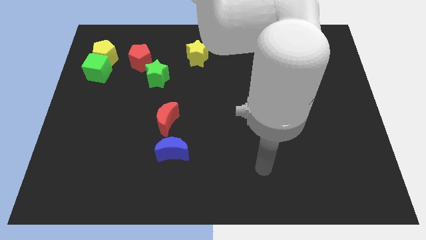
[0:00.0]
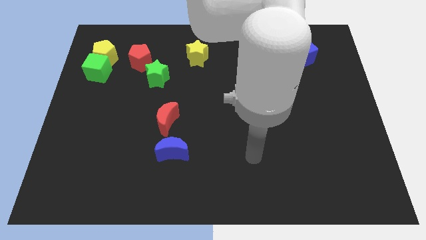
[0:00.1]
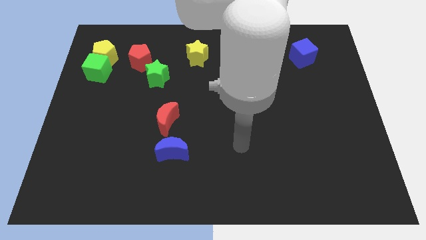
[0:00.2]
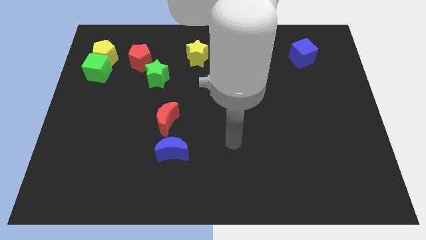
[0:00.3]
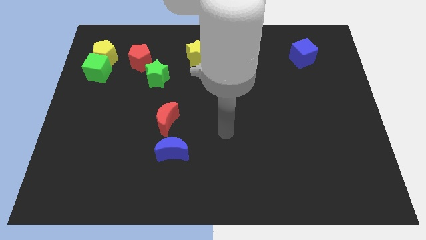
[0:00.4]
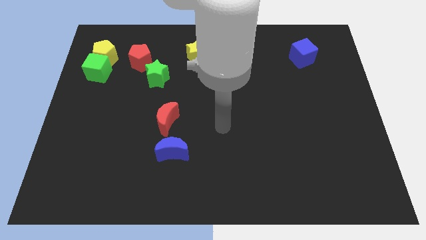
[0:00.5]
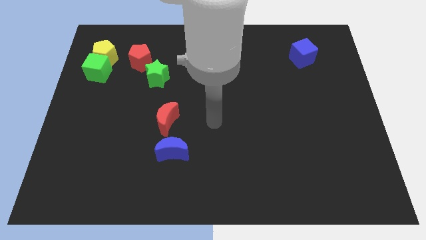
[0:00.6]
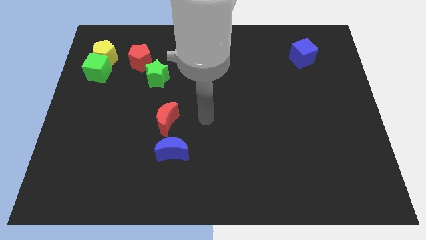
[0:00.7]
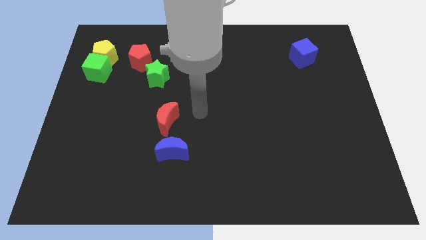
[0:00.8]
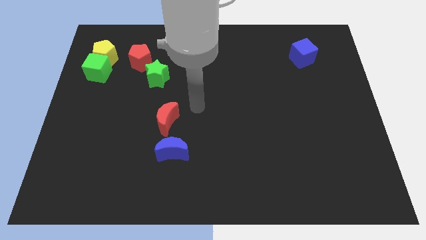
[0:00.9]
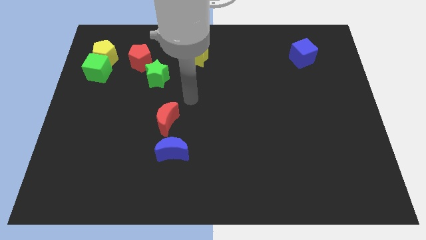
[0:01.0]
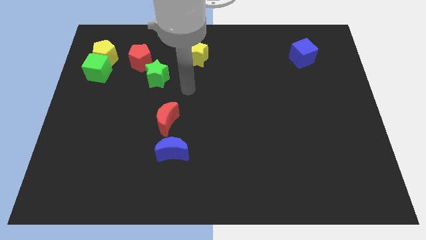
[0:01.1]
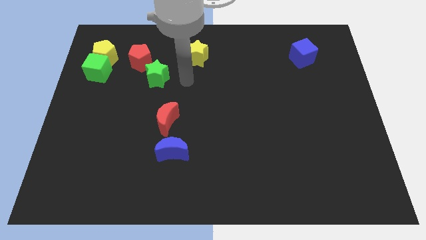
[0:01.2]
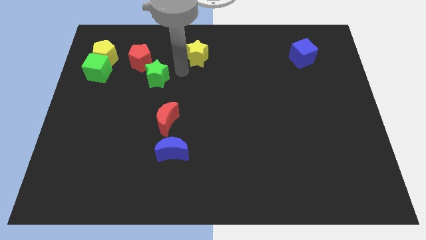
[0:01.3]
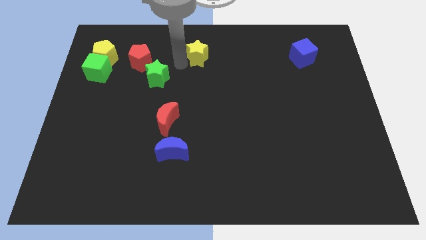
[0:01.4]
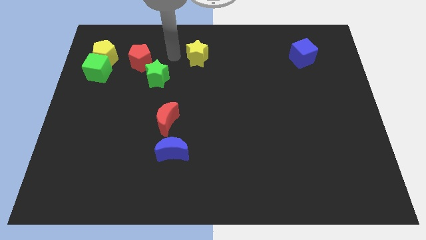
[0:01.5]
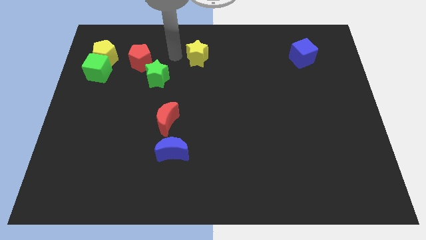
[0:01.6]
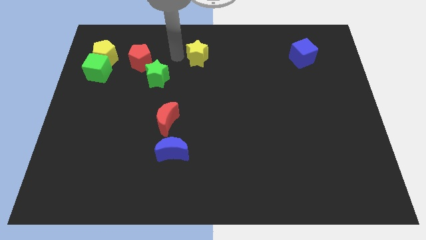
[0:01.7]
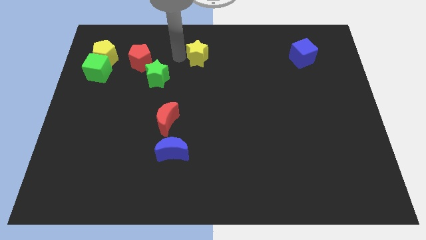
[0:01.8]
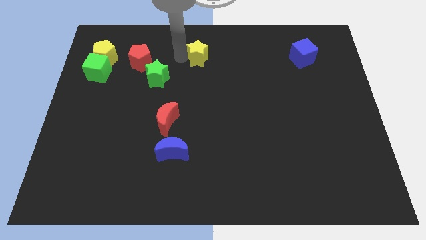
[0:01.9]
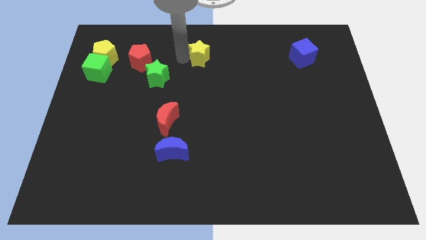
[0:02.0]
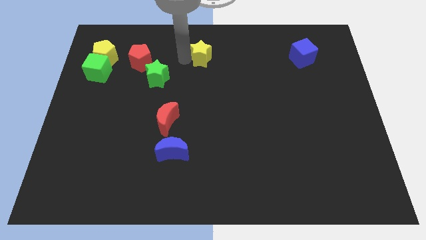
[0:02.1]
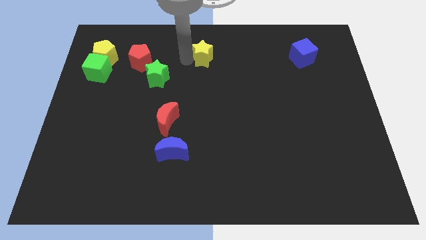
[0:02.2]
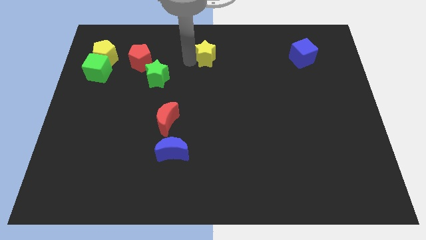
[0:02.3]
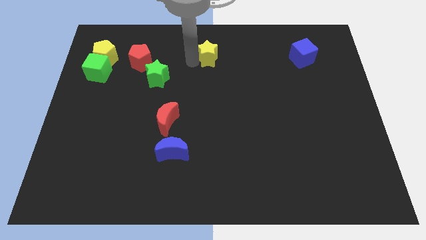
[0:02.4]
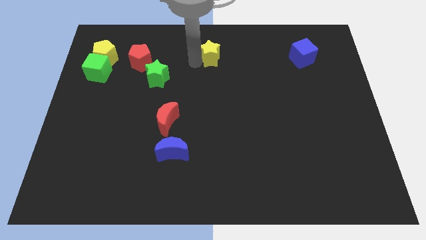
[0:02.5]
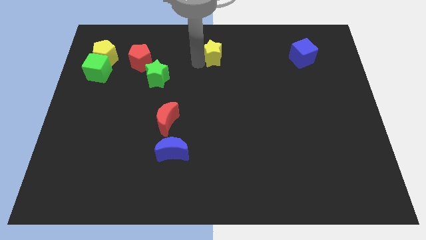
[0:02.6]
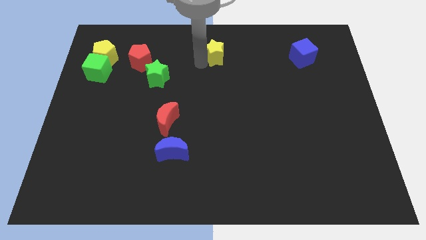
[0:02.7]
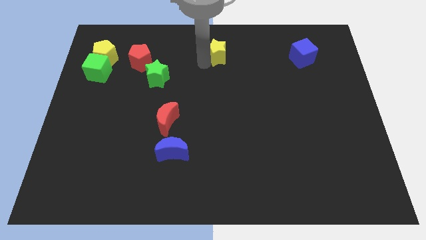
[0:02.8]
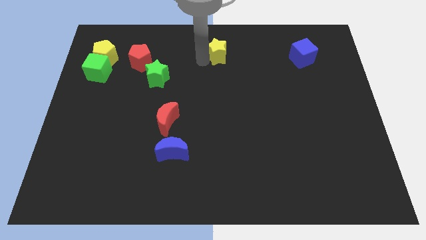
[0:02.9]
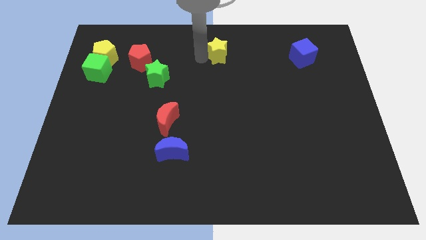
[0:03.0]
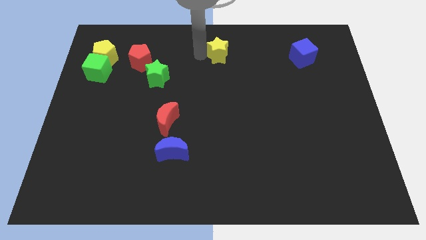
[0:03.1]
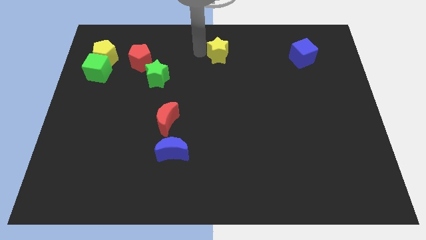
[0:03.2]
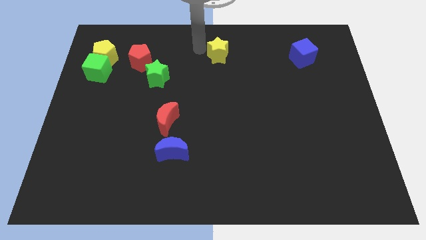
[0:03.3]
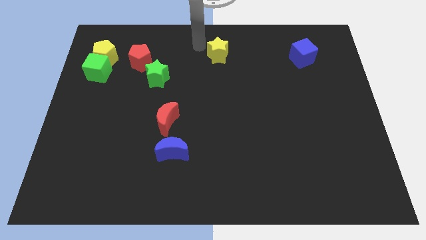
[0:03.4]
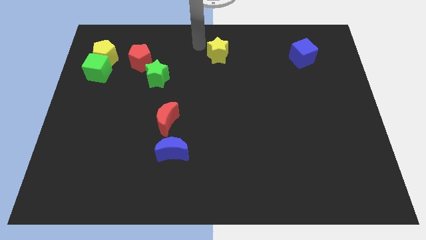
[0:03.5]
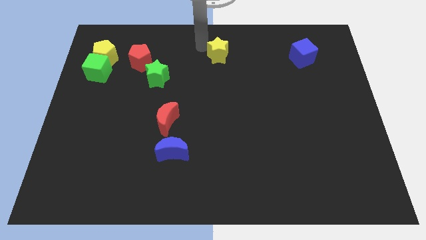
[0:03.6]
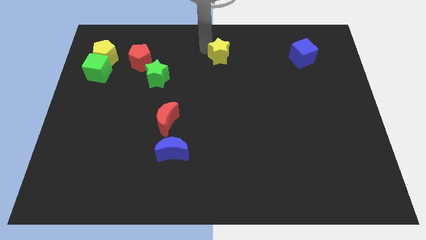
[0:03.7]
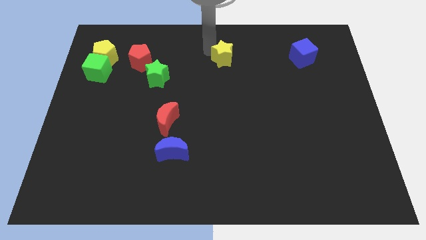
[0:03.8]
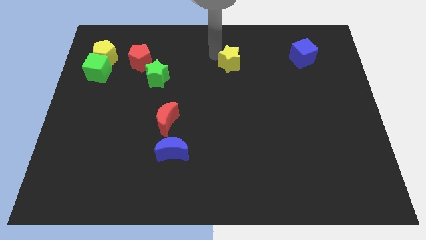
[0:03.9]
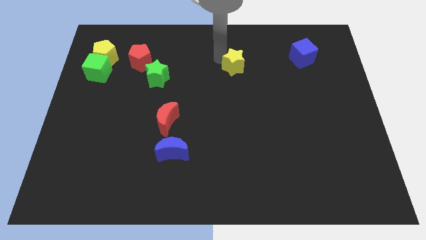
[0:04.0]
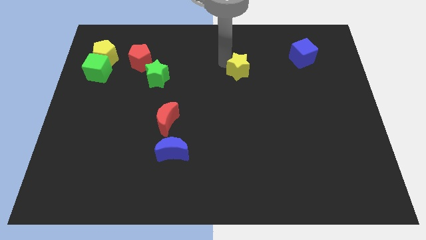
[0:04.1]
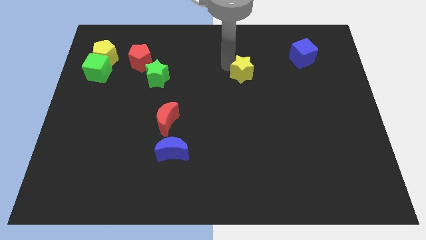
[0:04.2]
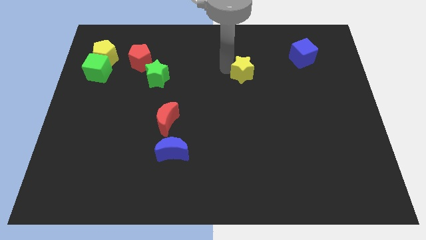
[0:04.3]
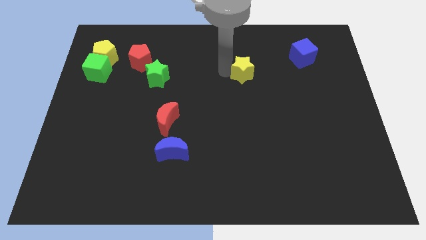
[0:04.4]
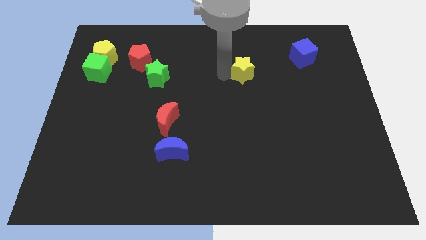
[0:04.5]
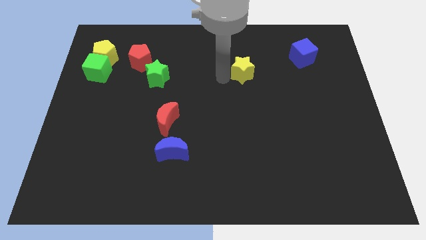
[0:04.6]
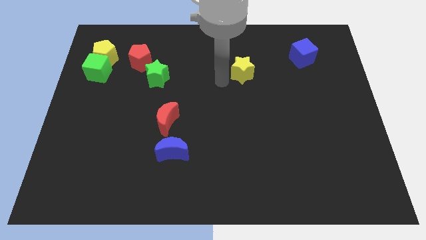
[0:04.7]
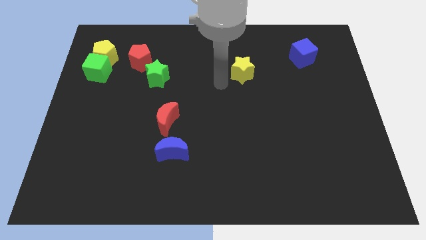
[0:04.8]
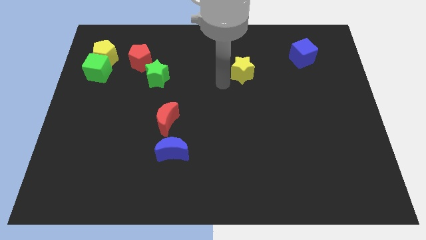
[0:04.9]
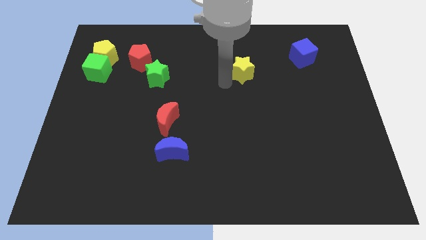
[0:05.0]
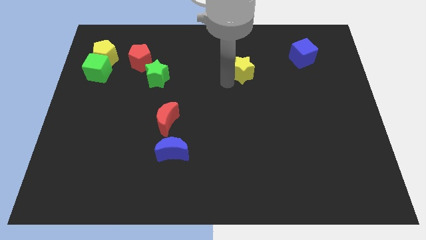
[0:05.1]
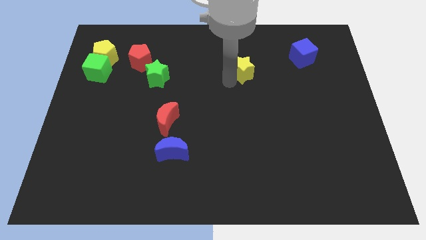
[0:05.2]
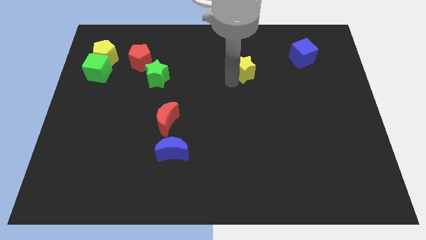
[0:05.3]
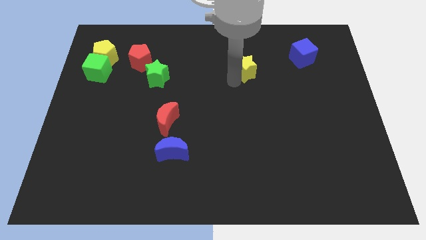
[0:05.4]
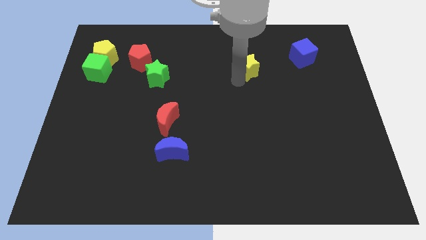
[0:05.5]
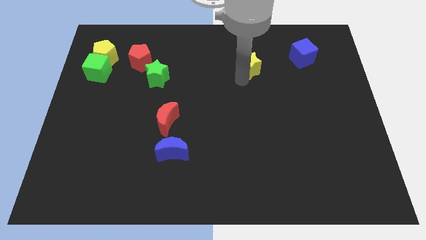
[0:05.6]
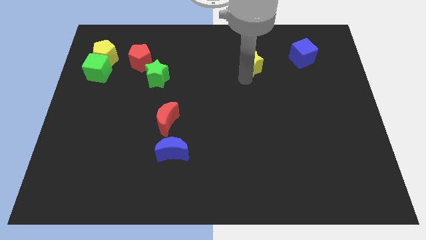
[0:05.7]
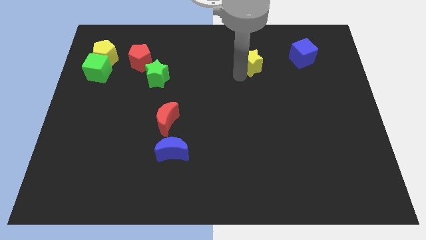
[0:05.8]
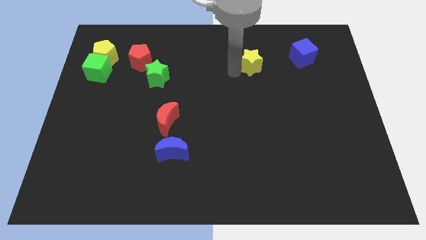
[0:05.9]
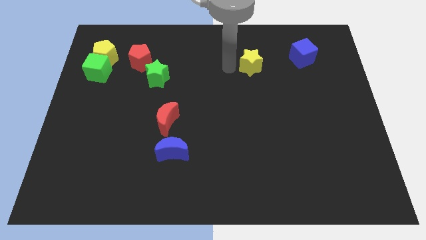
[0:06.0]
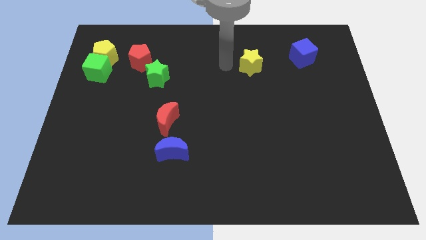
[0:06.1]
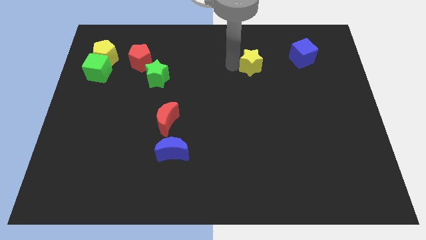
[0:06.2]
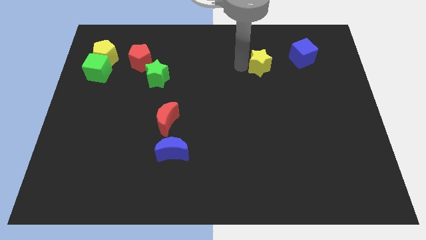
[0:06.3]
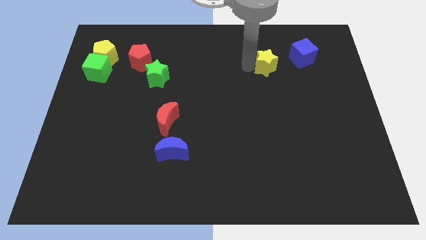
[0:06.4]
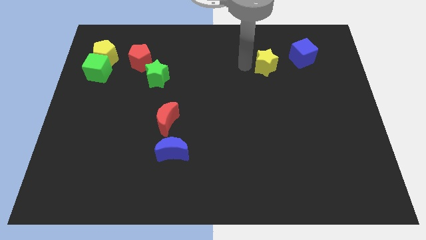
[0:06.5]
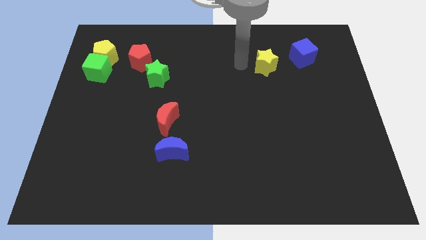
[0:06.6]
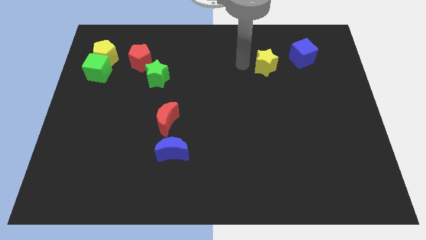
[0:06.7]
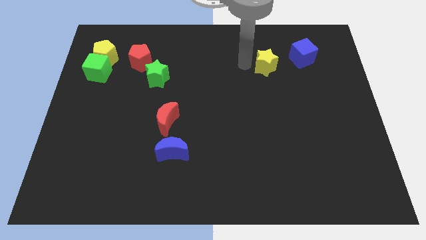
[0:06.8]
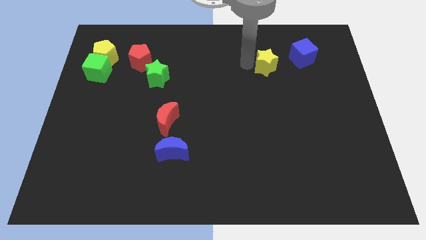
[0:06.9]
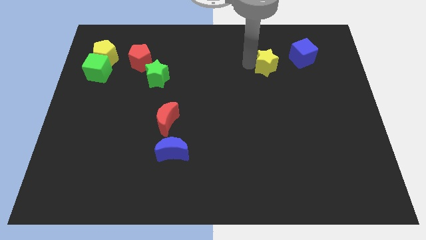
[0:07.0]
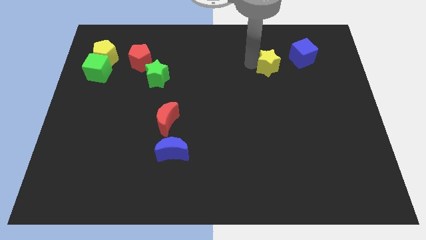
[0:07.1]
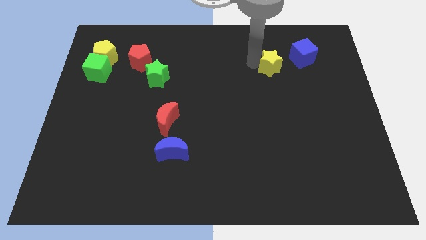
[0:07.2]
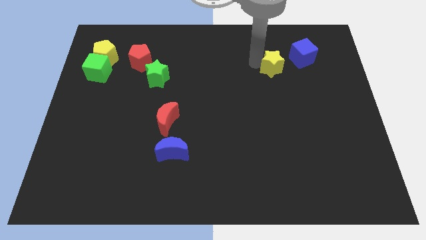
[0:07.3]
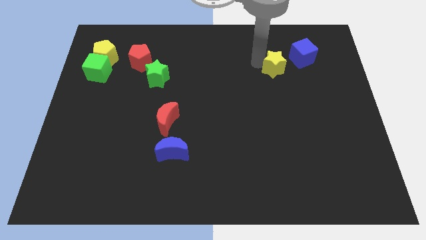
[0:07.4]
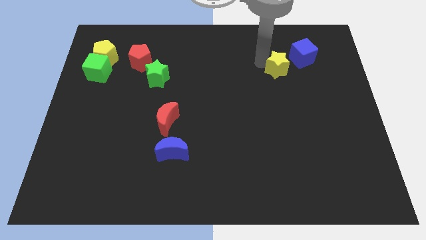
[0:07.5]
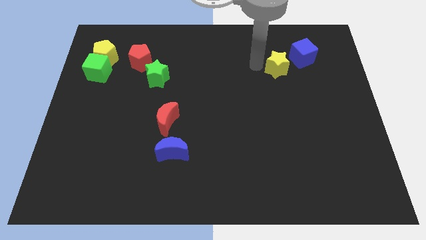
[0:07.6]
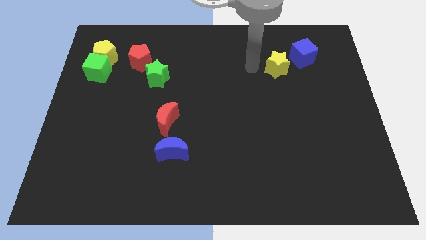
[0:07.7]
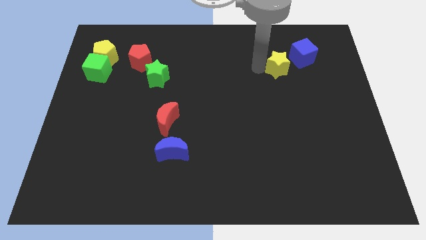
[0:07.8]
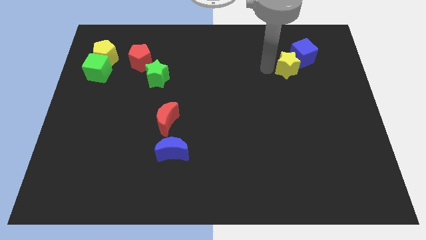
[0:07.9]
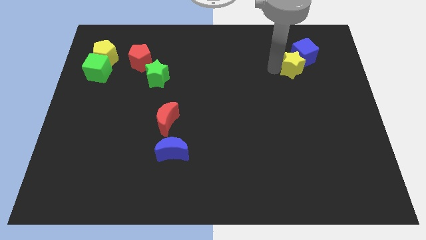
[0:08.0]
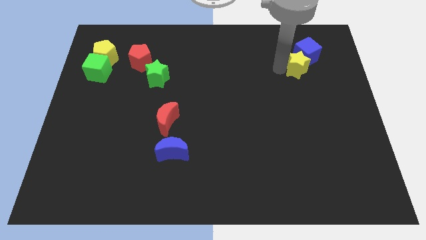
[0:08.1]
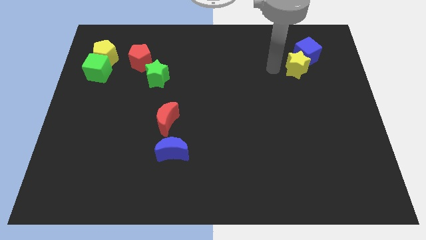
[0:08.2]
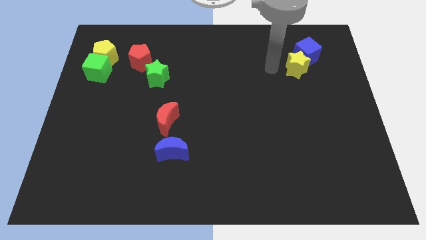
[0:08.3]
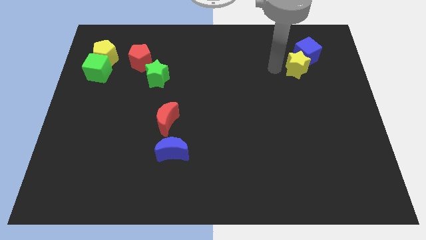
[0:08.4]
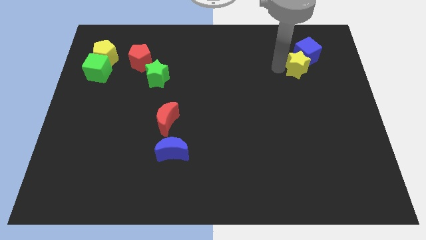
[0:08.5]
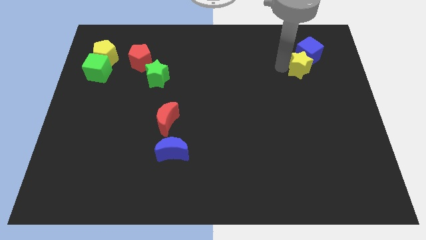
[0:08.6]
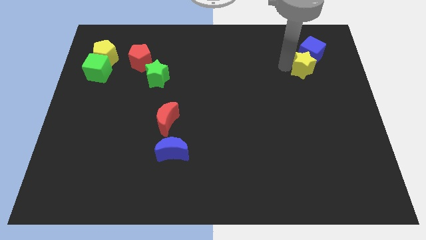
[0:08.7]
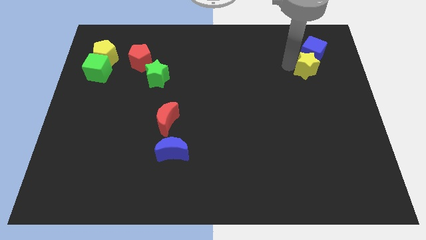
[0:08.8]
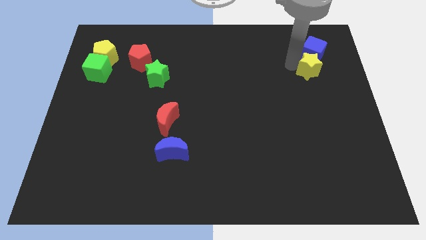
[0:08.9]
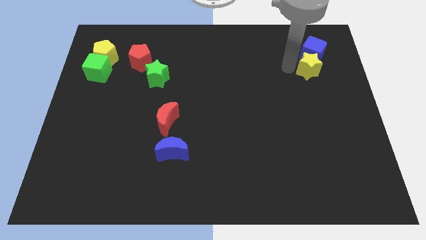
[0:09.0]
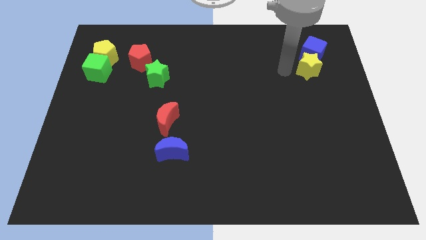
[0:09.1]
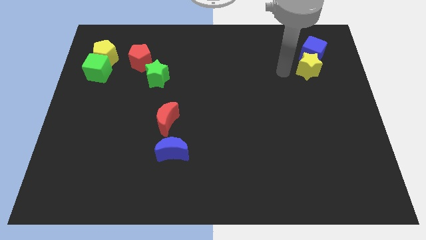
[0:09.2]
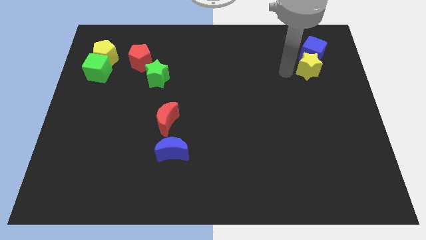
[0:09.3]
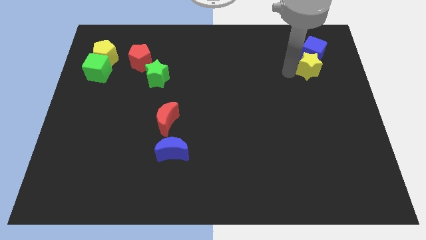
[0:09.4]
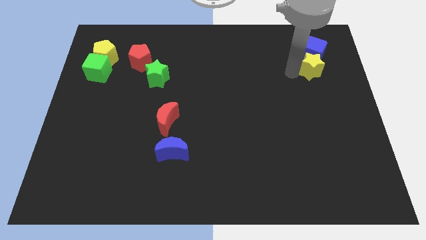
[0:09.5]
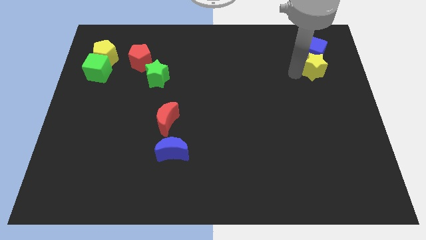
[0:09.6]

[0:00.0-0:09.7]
slide the yellow star to the bottom right side of the blue cube
